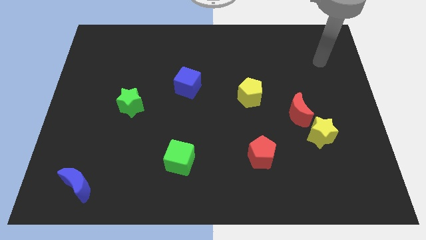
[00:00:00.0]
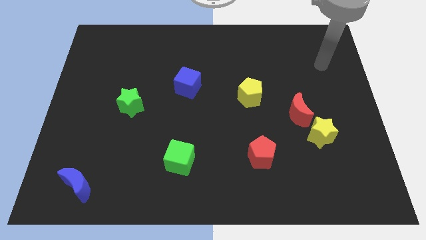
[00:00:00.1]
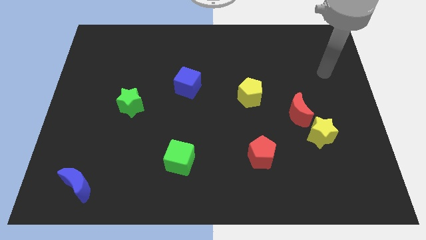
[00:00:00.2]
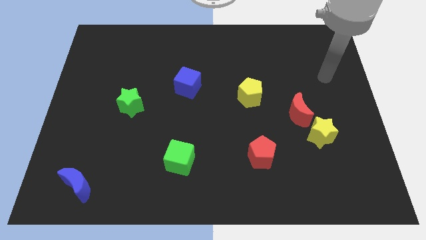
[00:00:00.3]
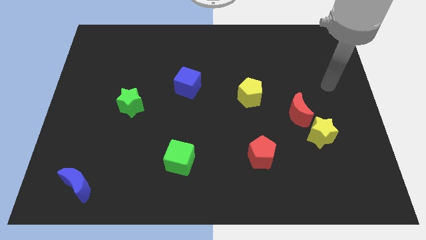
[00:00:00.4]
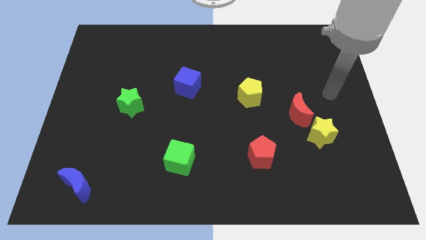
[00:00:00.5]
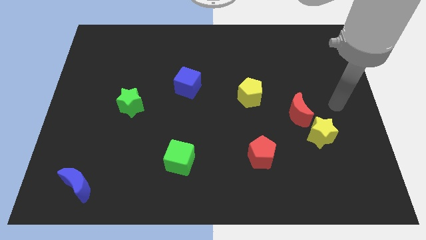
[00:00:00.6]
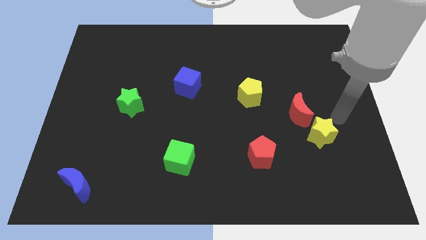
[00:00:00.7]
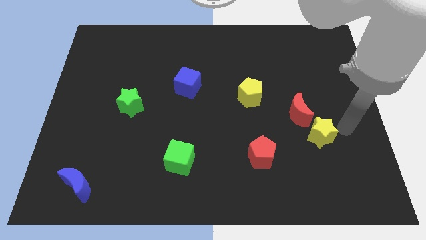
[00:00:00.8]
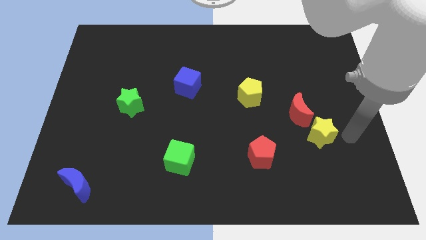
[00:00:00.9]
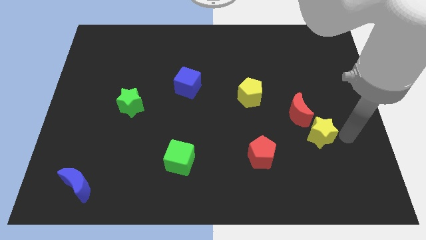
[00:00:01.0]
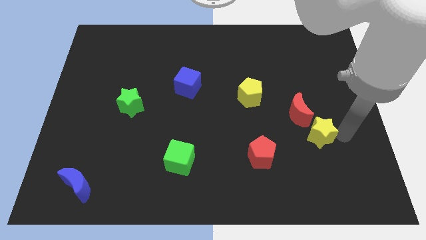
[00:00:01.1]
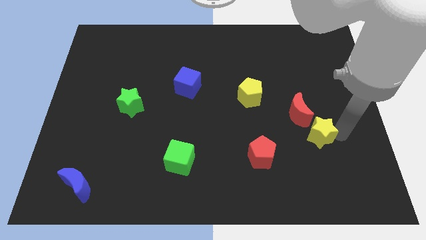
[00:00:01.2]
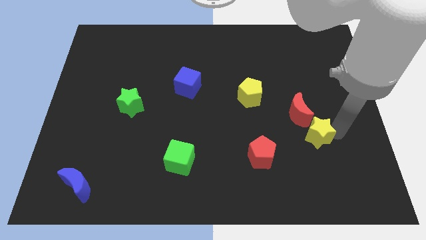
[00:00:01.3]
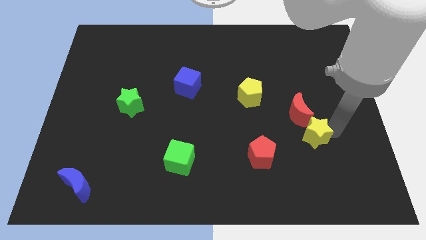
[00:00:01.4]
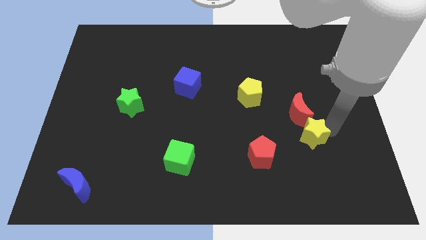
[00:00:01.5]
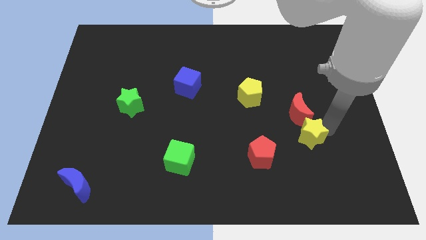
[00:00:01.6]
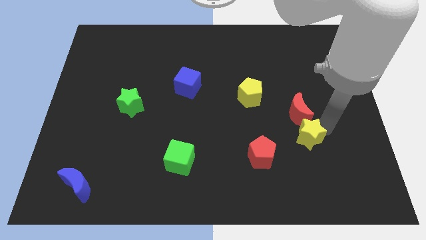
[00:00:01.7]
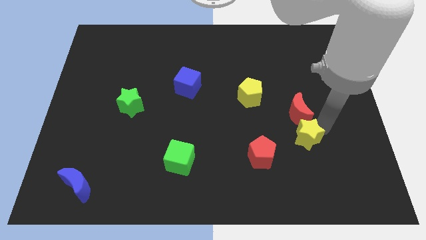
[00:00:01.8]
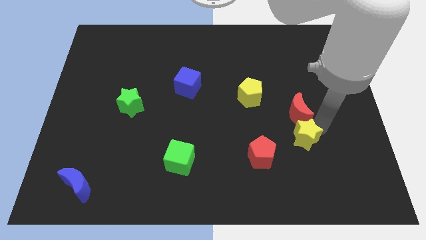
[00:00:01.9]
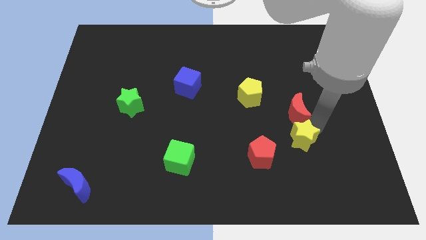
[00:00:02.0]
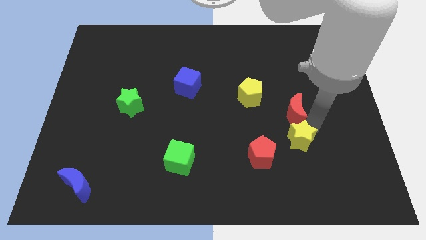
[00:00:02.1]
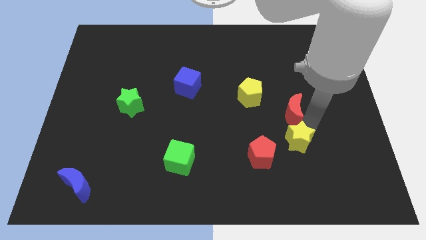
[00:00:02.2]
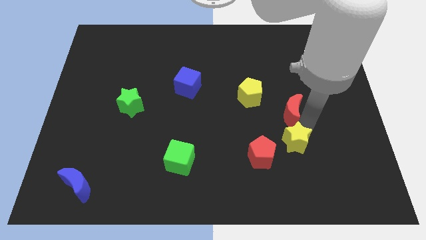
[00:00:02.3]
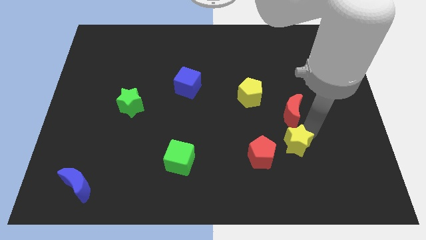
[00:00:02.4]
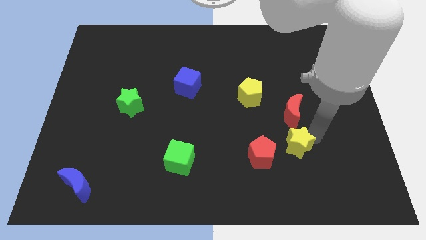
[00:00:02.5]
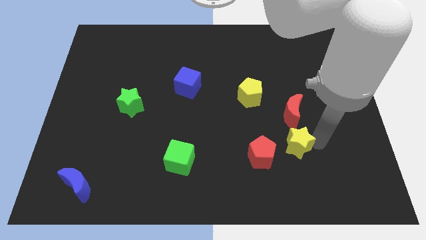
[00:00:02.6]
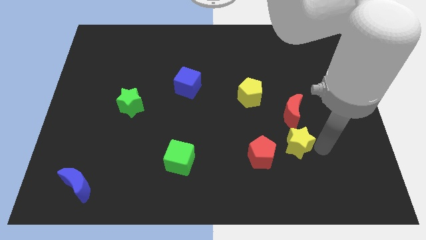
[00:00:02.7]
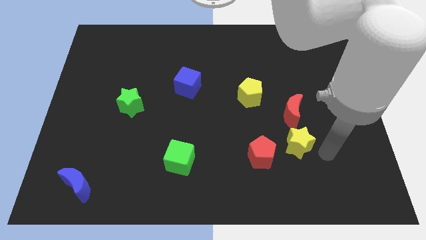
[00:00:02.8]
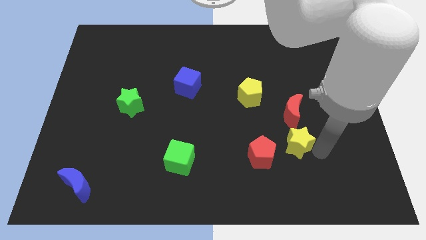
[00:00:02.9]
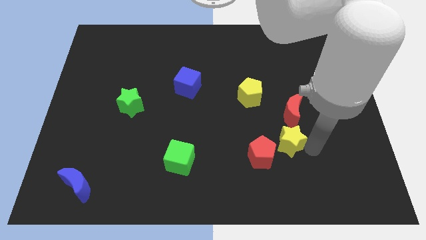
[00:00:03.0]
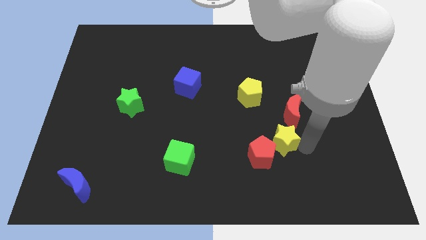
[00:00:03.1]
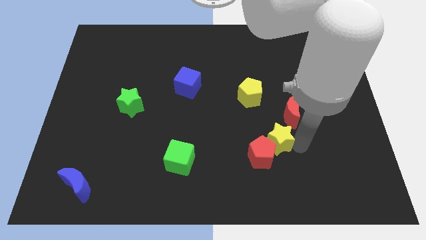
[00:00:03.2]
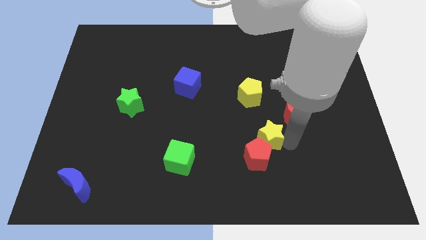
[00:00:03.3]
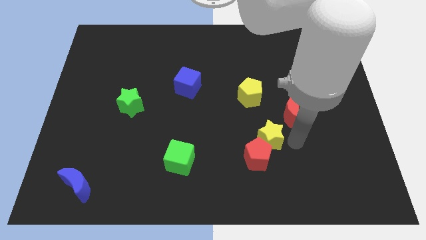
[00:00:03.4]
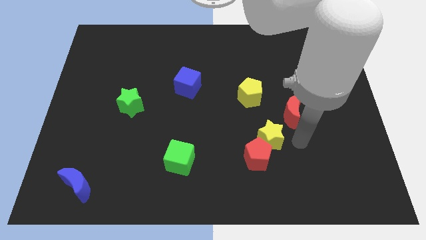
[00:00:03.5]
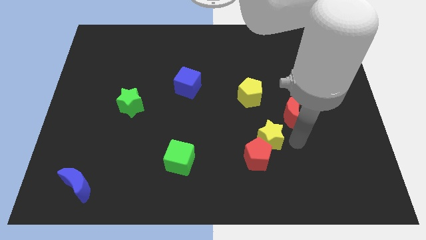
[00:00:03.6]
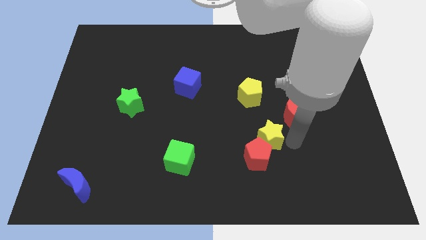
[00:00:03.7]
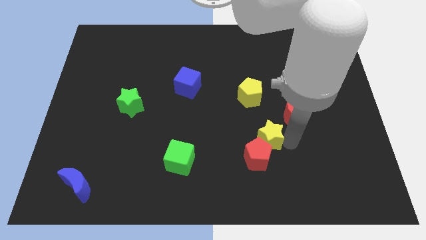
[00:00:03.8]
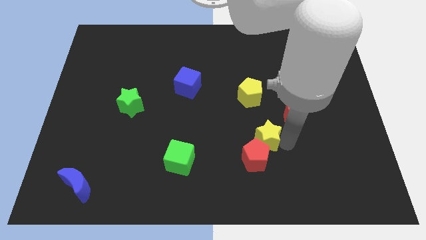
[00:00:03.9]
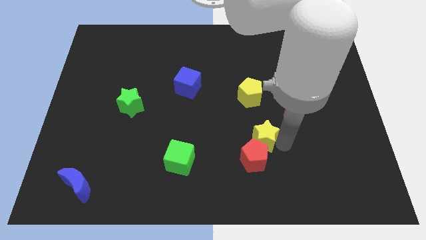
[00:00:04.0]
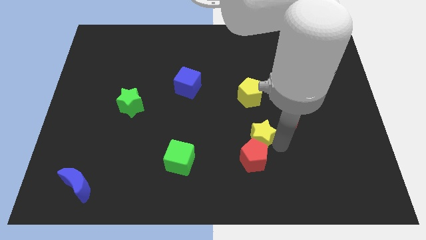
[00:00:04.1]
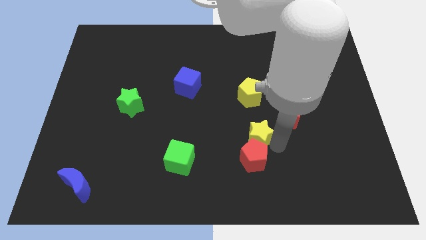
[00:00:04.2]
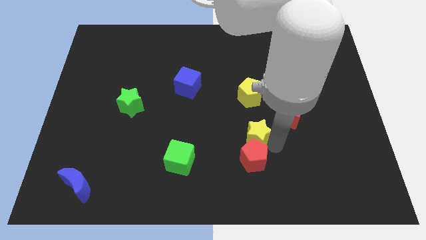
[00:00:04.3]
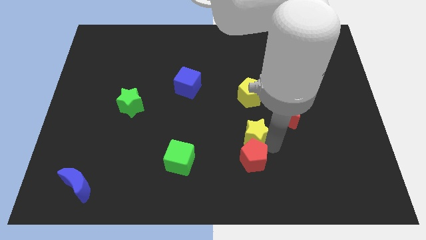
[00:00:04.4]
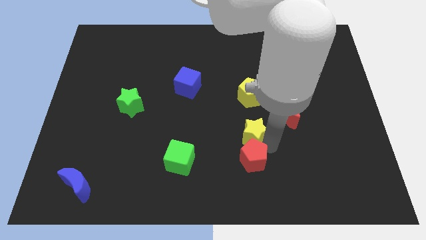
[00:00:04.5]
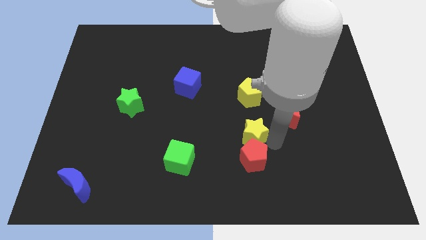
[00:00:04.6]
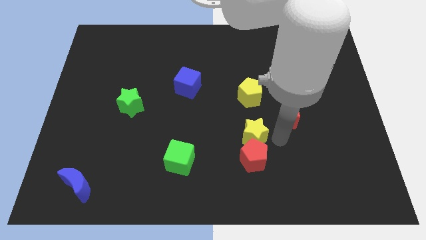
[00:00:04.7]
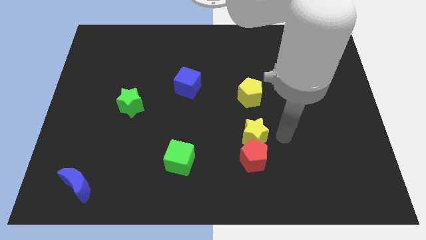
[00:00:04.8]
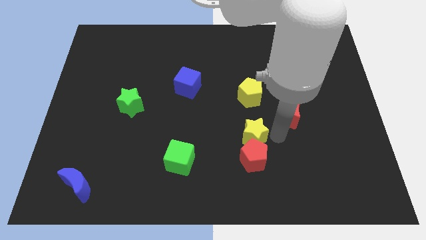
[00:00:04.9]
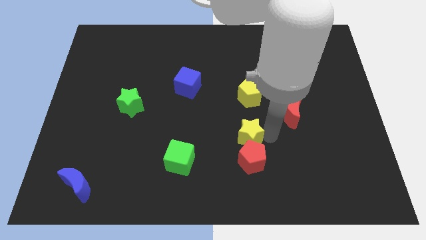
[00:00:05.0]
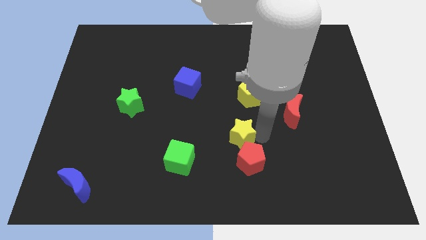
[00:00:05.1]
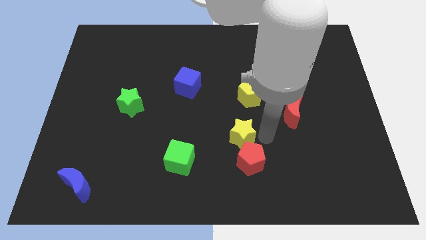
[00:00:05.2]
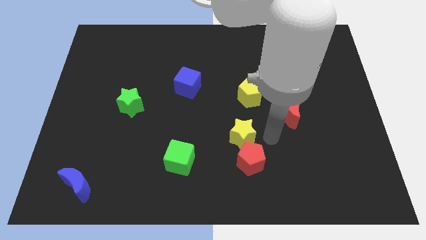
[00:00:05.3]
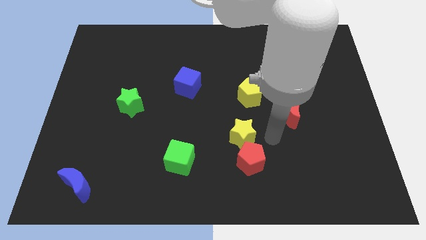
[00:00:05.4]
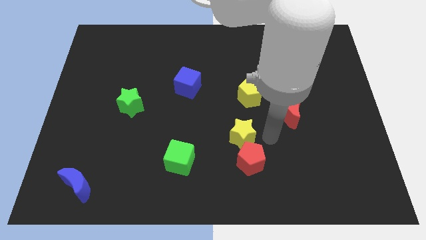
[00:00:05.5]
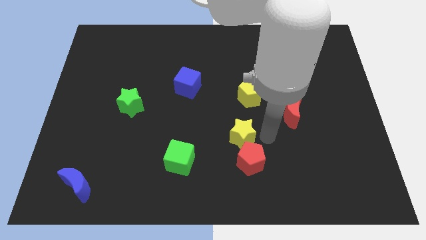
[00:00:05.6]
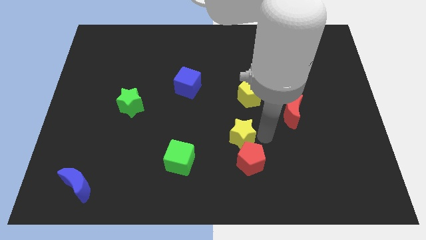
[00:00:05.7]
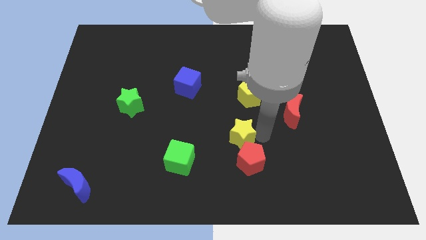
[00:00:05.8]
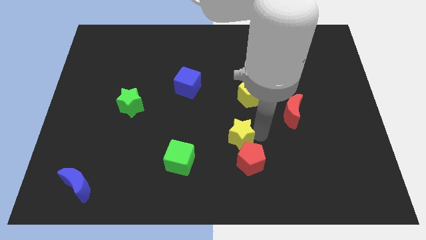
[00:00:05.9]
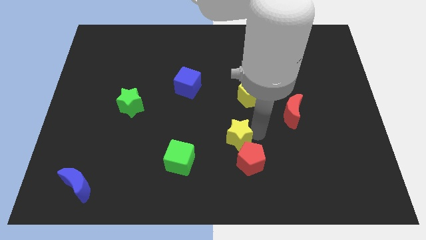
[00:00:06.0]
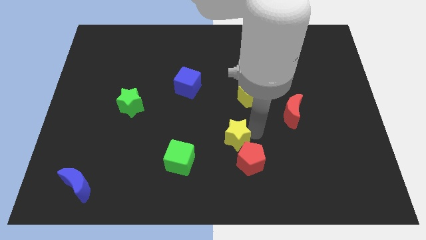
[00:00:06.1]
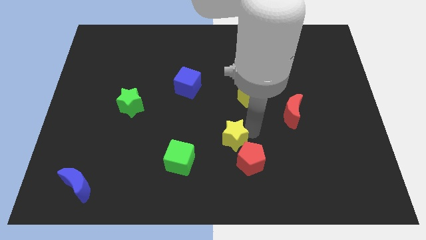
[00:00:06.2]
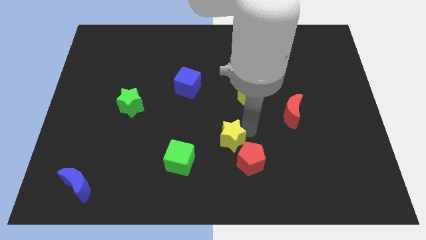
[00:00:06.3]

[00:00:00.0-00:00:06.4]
move the yellow star to the left

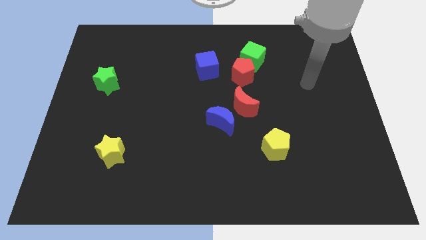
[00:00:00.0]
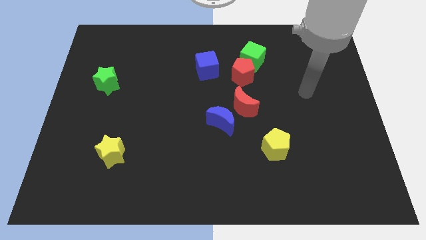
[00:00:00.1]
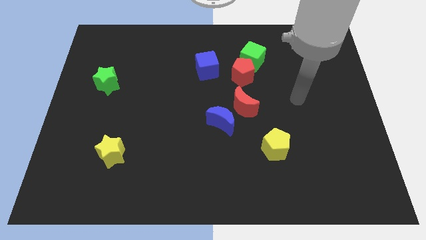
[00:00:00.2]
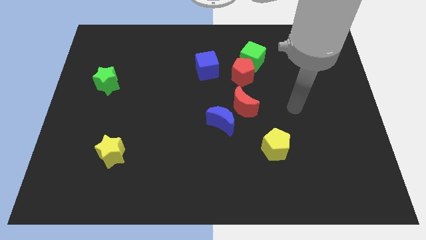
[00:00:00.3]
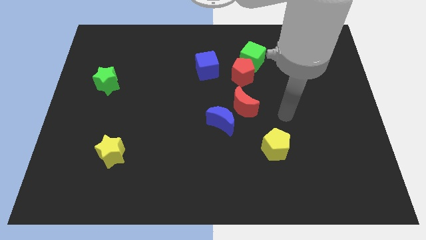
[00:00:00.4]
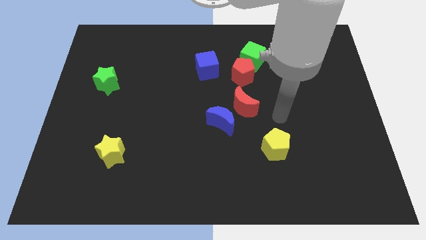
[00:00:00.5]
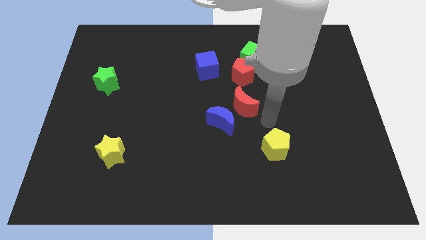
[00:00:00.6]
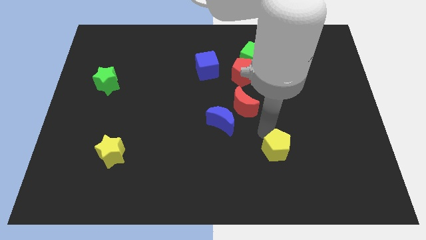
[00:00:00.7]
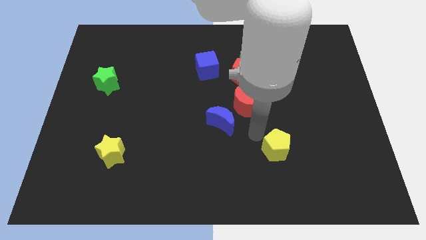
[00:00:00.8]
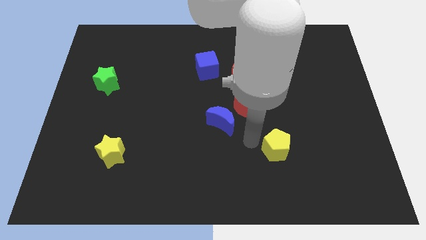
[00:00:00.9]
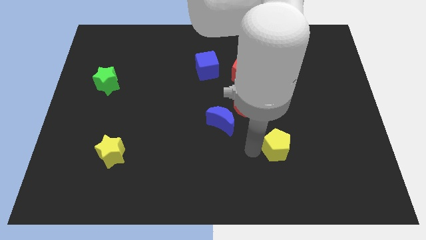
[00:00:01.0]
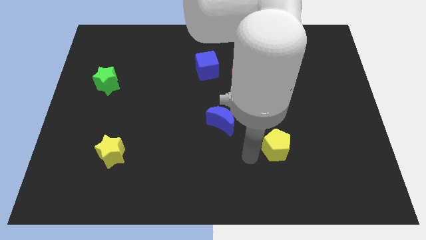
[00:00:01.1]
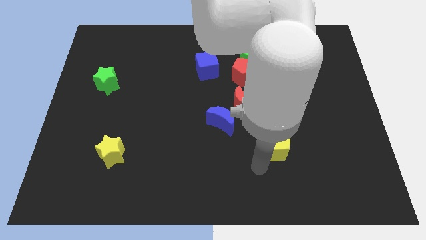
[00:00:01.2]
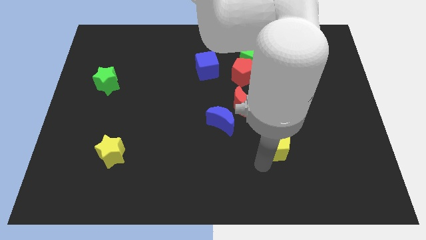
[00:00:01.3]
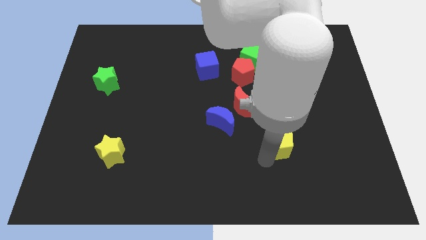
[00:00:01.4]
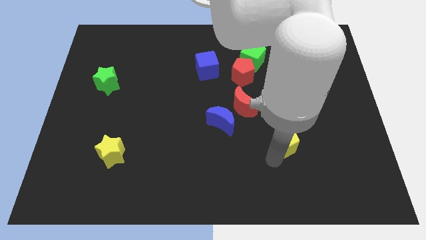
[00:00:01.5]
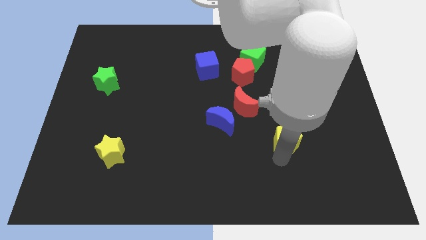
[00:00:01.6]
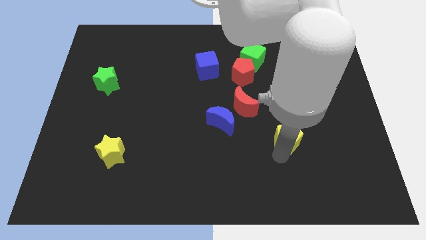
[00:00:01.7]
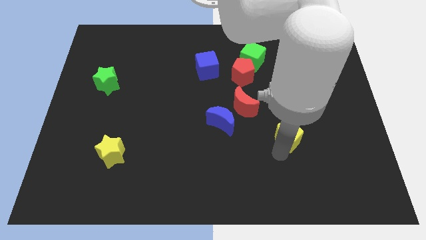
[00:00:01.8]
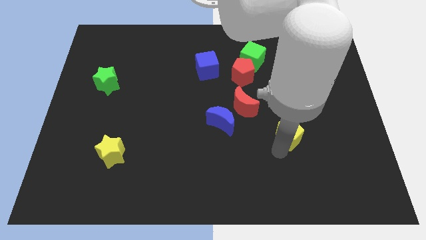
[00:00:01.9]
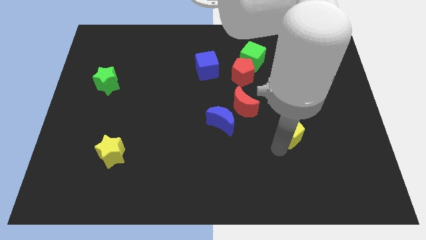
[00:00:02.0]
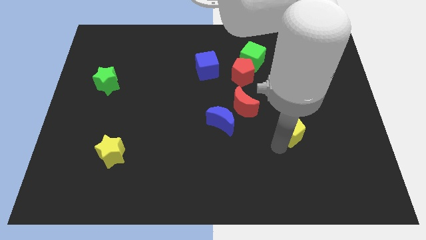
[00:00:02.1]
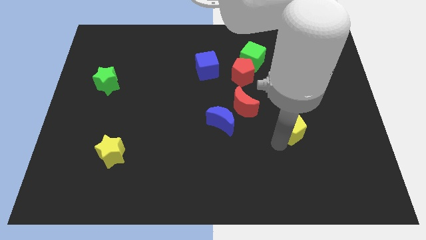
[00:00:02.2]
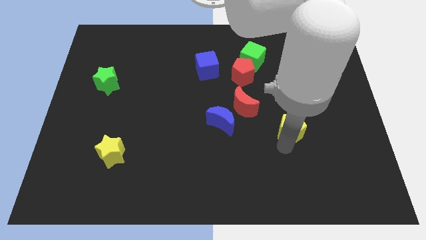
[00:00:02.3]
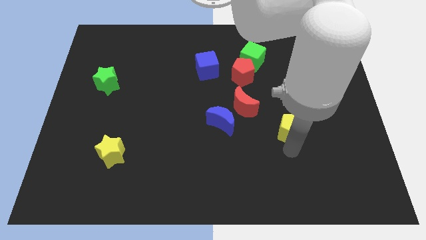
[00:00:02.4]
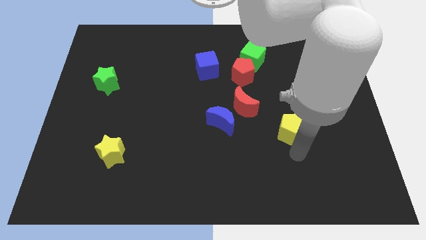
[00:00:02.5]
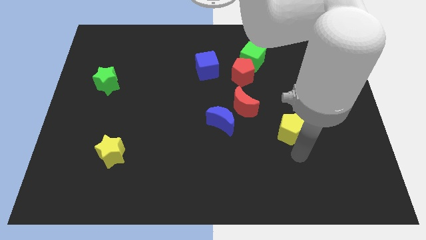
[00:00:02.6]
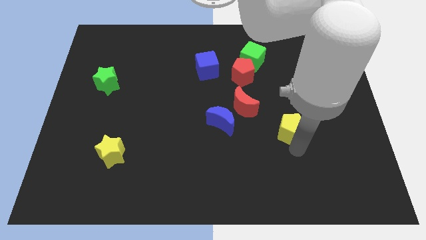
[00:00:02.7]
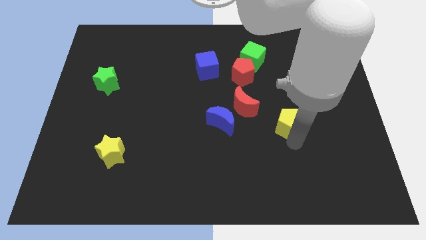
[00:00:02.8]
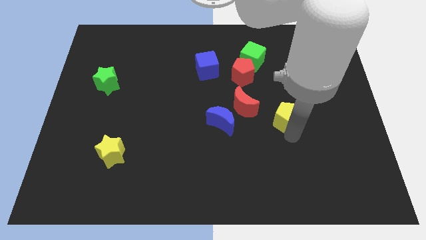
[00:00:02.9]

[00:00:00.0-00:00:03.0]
slide the yellow pentagon upwards a little
